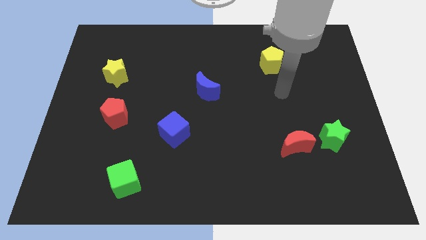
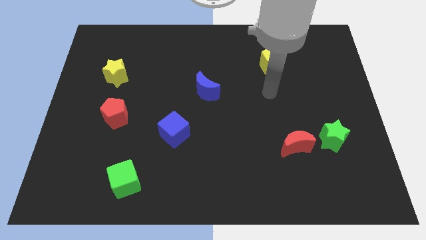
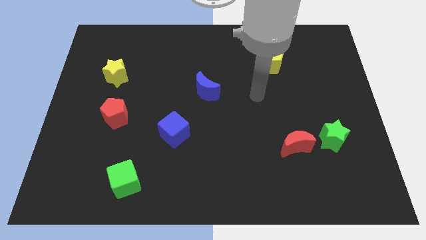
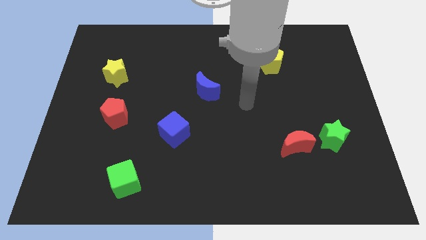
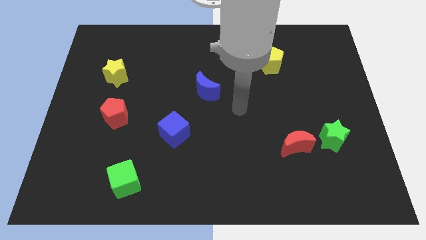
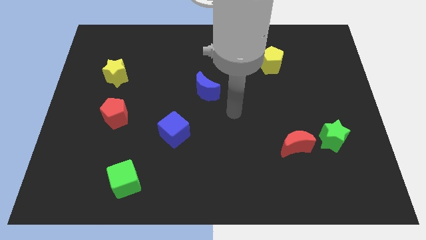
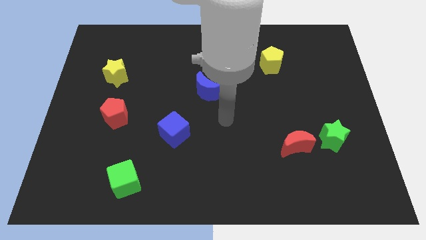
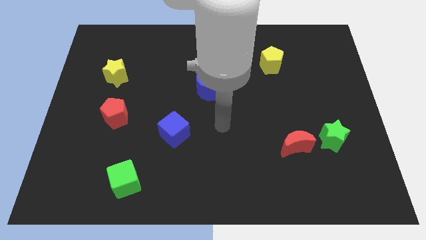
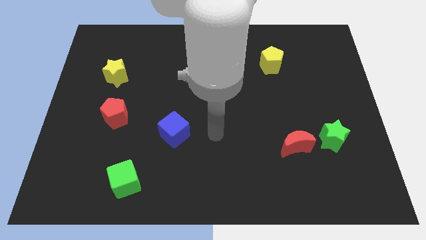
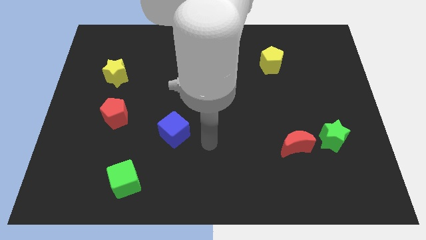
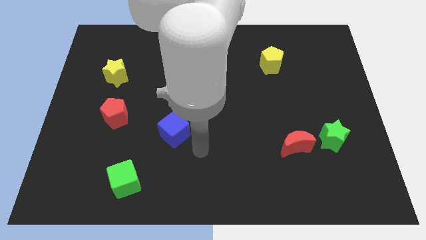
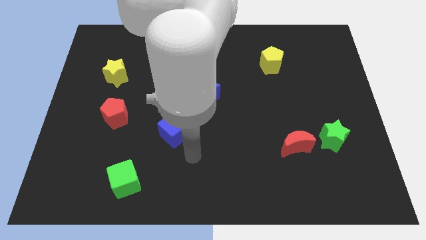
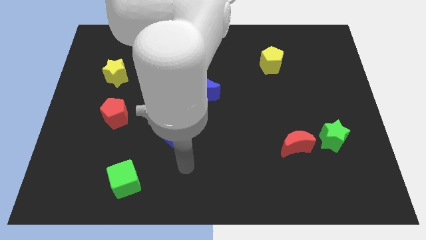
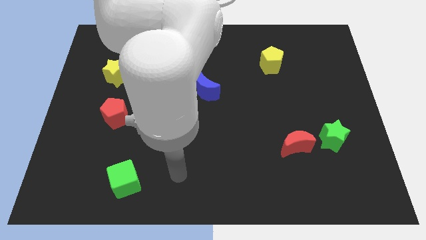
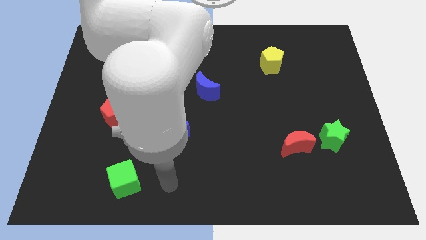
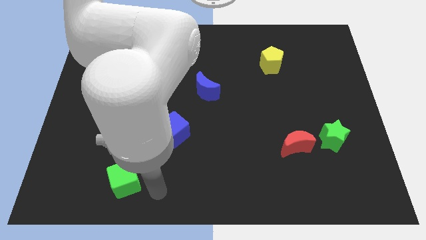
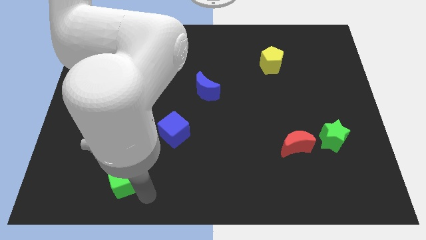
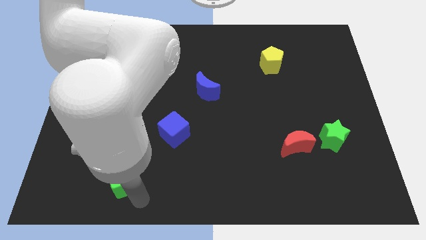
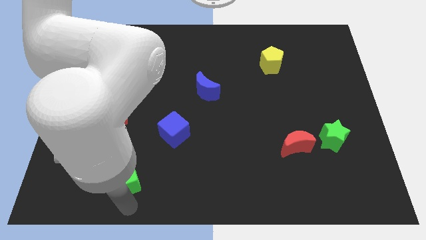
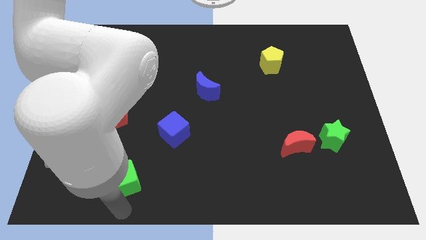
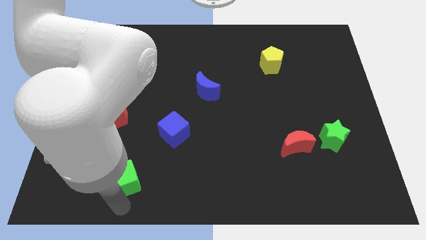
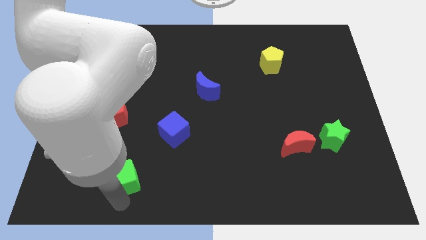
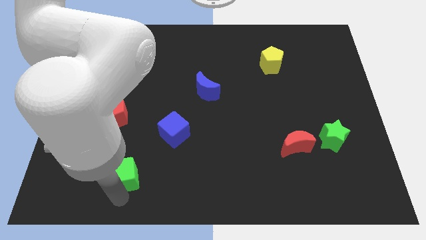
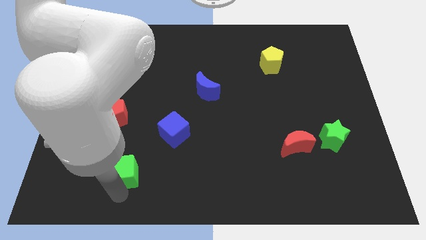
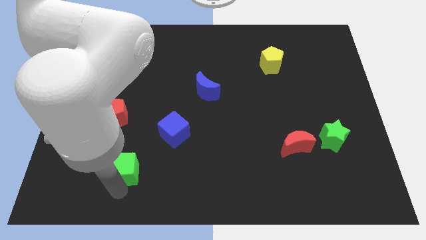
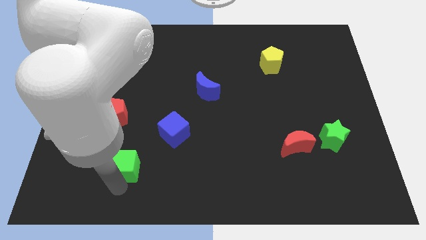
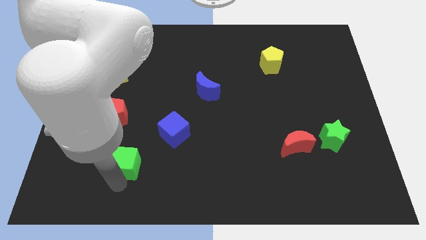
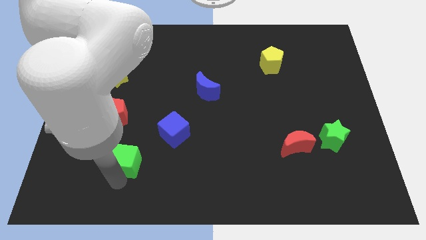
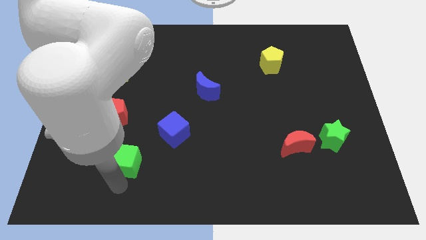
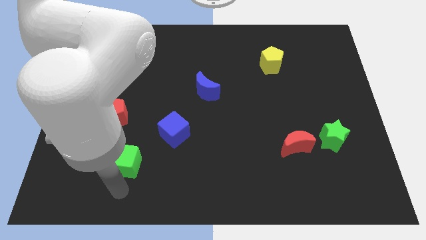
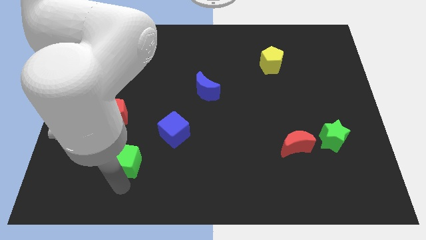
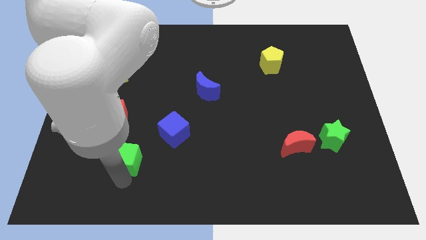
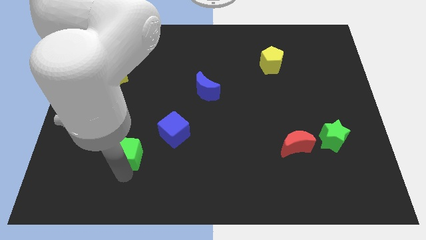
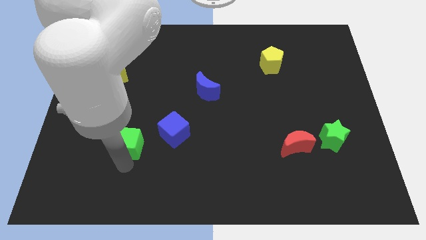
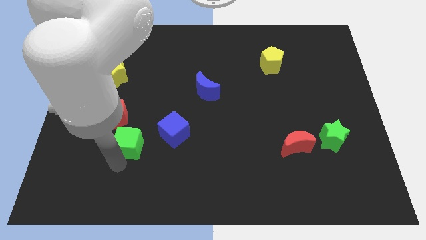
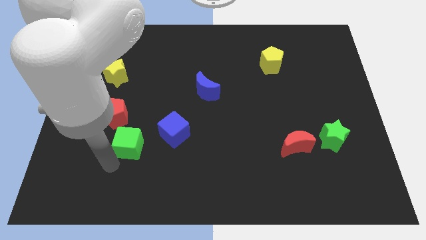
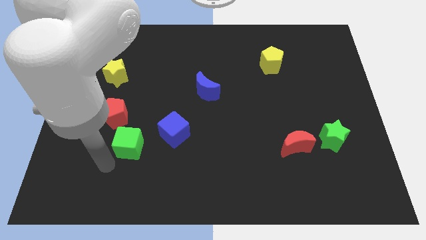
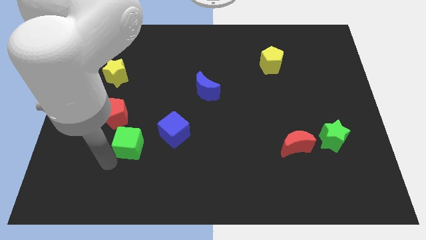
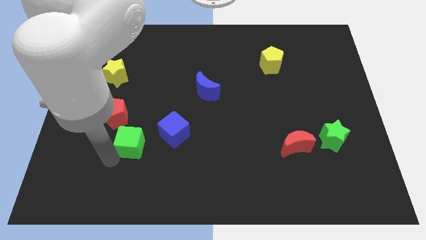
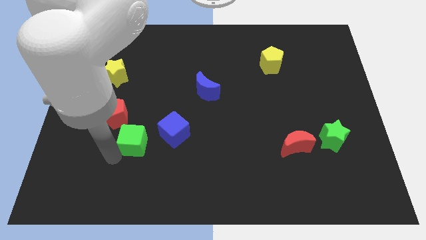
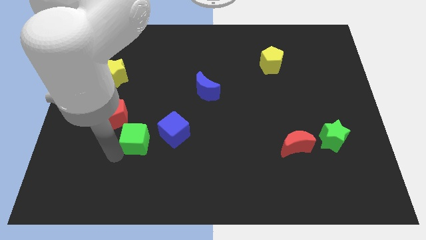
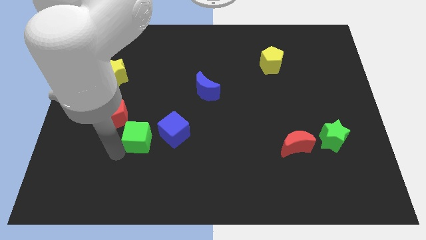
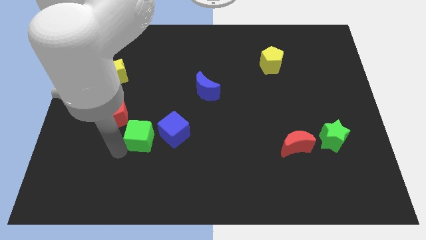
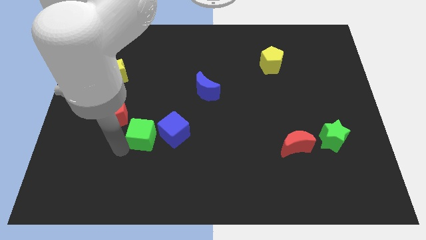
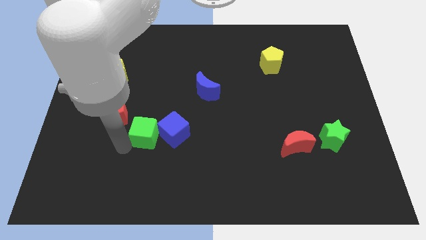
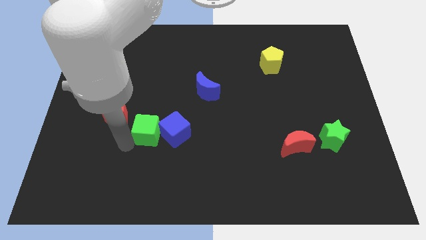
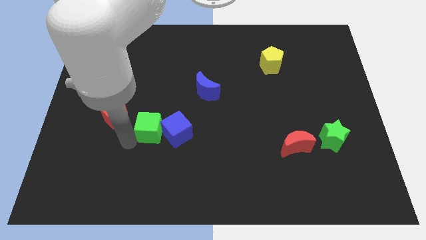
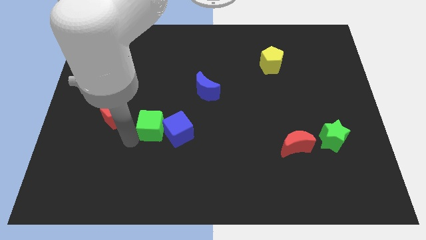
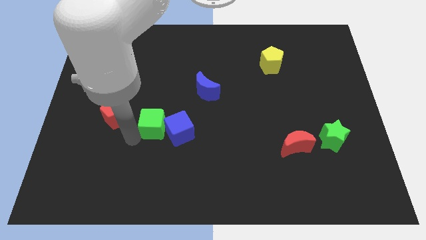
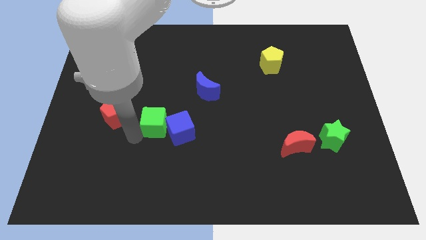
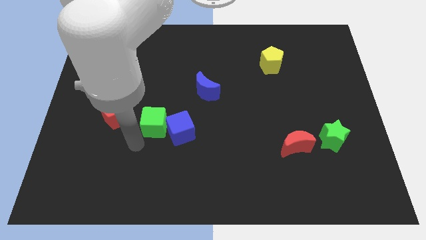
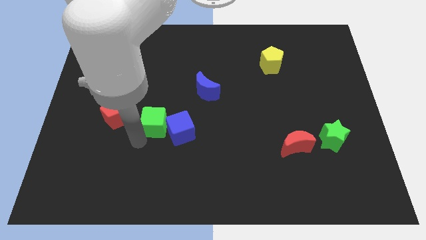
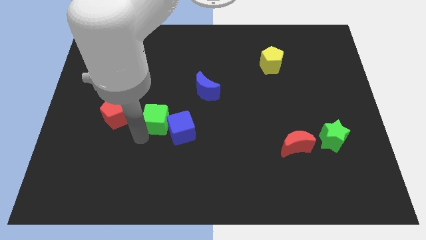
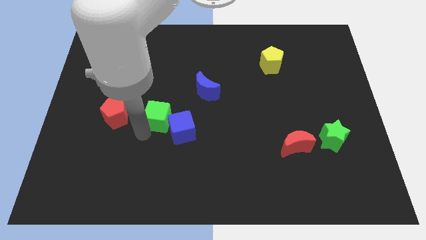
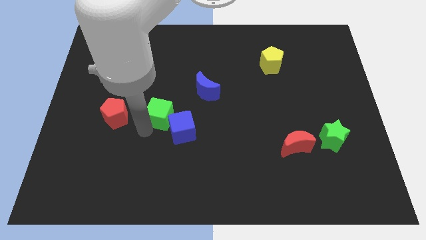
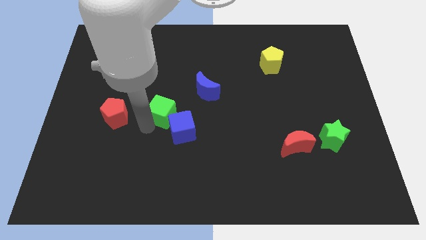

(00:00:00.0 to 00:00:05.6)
slide the green cube to the top side of the blue cube

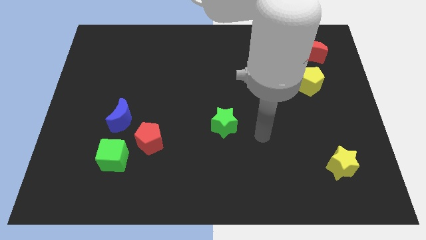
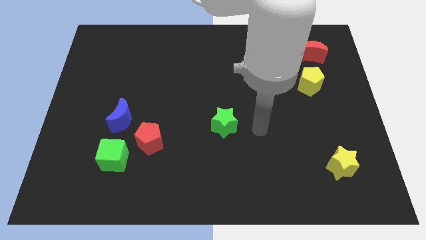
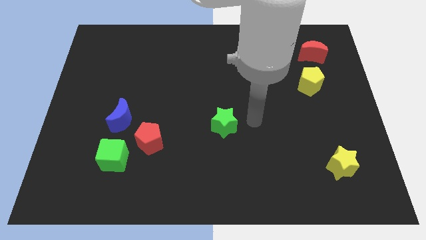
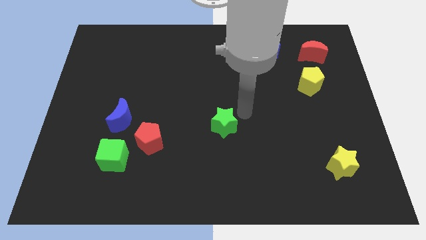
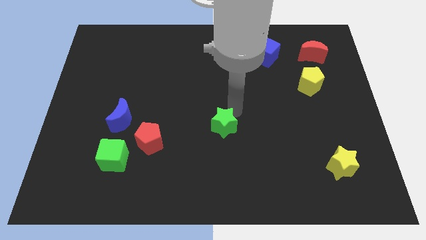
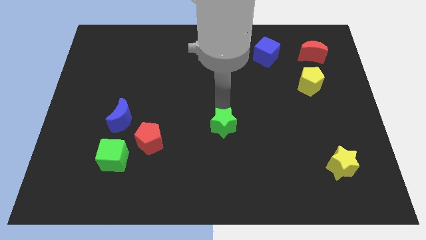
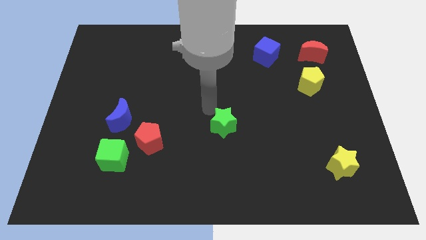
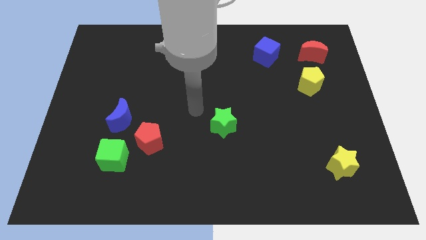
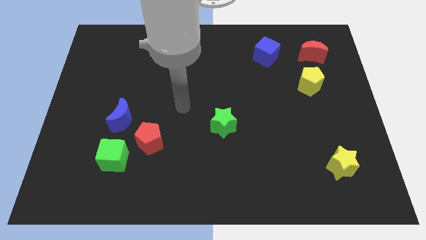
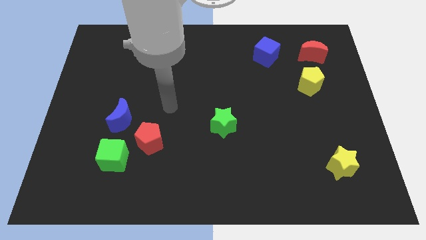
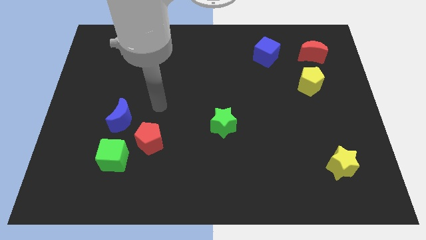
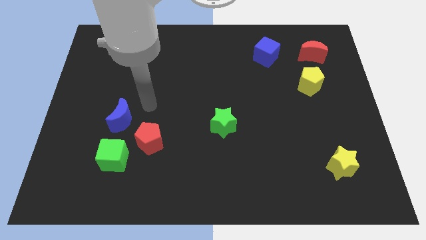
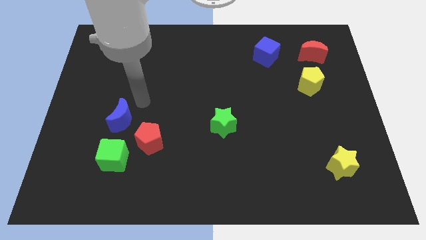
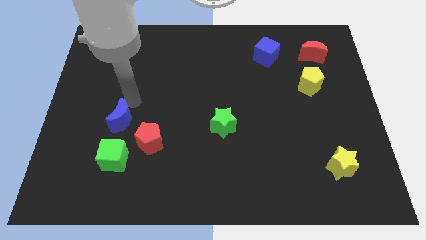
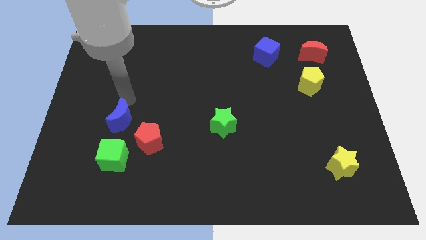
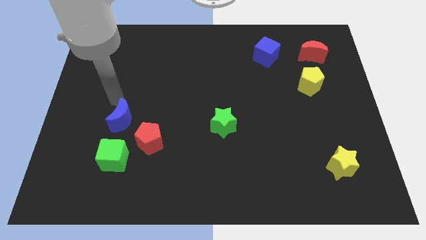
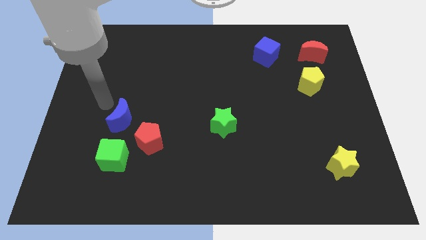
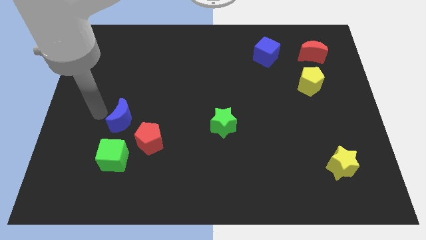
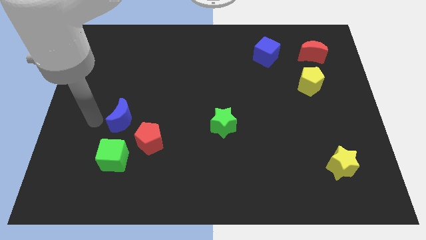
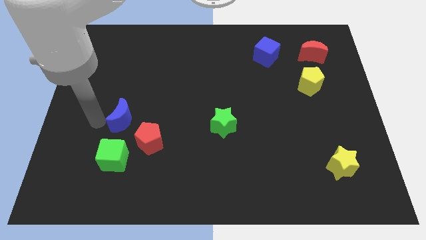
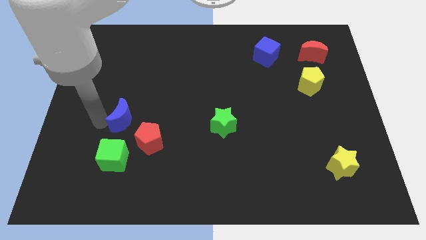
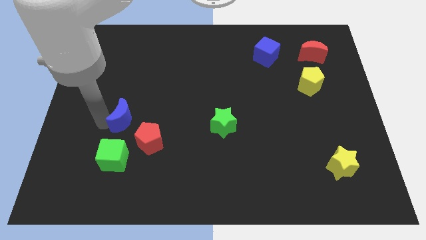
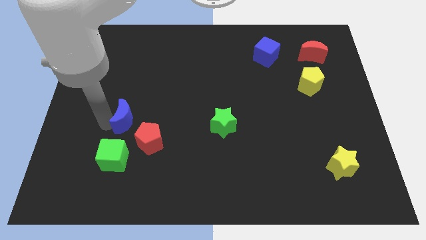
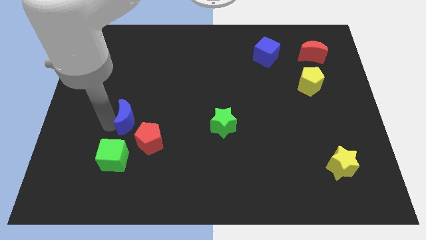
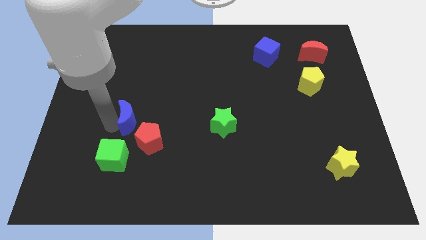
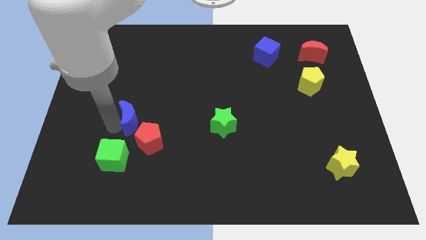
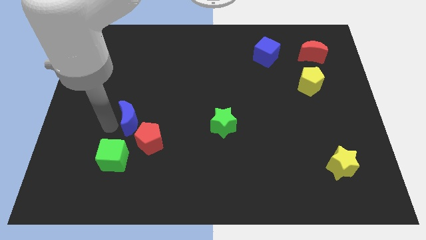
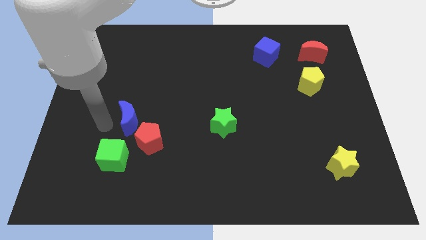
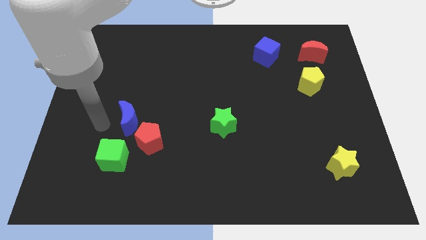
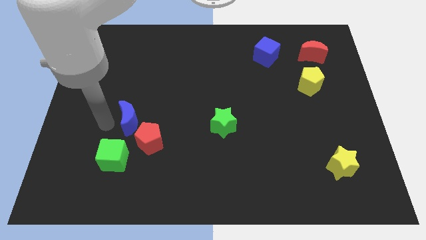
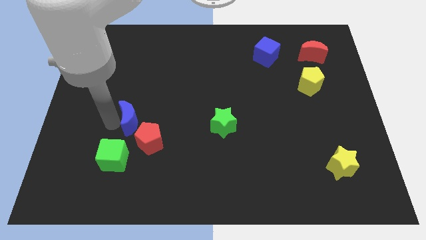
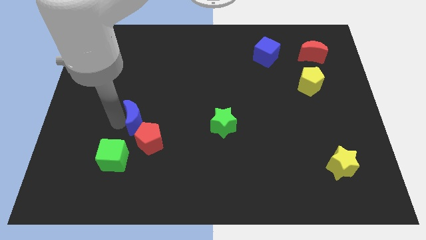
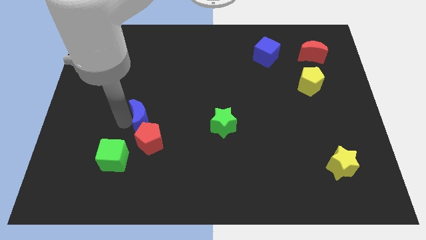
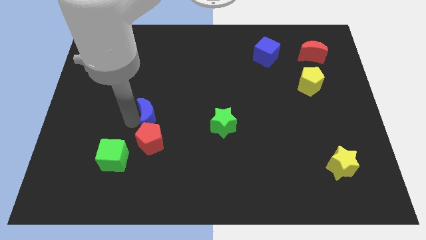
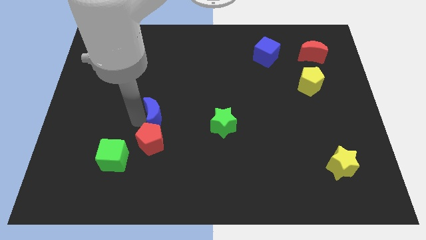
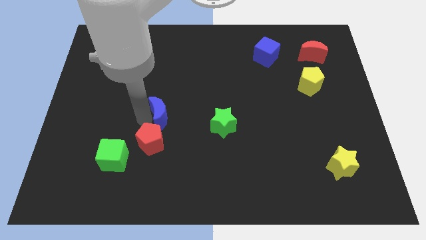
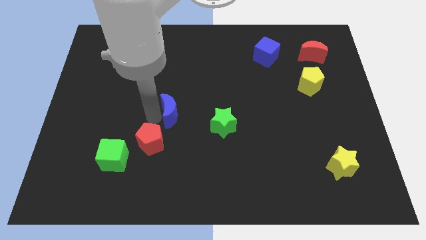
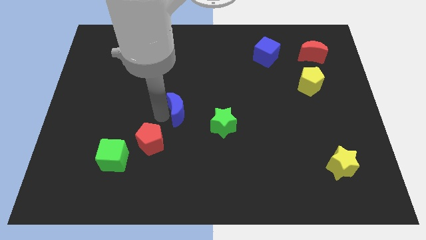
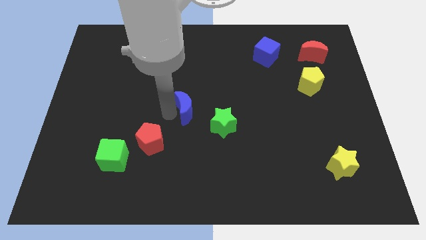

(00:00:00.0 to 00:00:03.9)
move the blue moon to the top left of the green star
